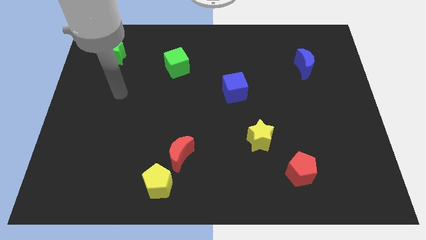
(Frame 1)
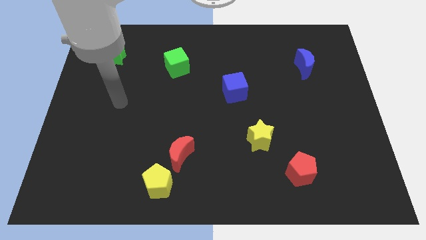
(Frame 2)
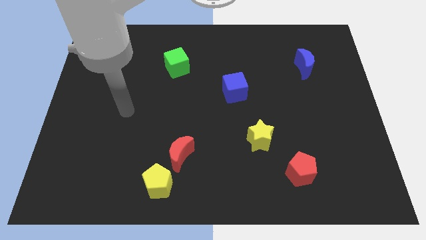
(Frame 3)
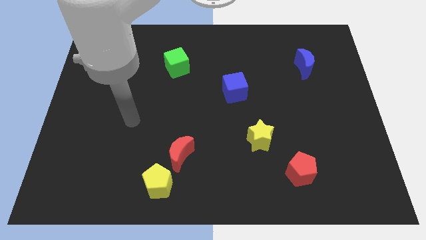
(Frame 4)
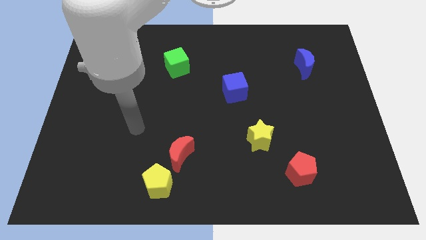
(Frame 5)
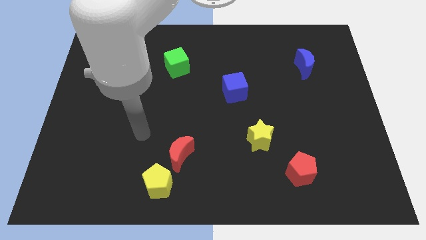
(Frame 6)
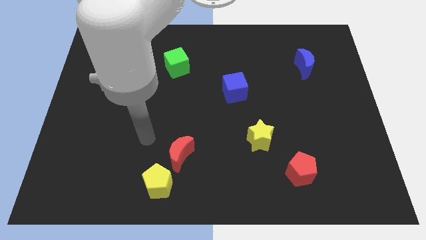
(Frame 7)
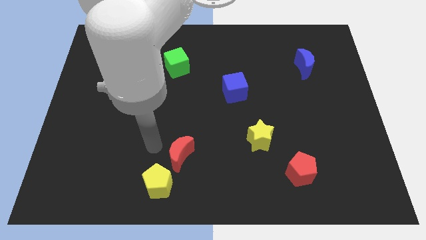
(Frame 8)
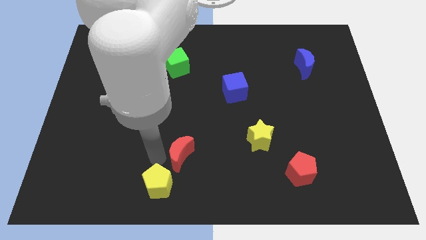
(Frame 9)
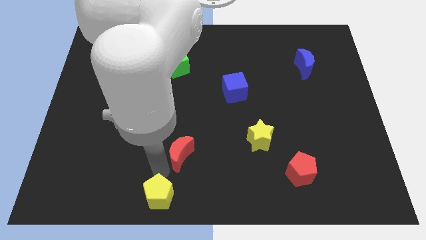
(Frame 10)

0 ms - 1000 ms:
separate the red moon from the yellow pentagon

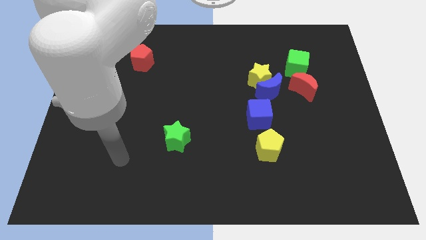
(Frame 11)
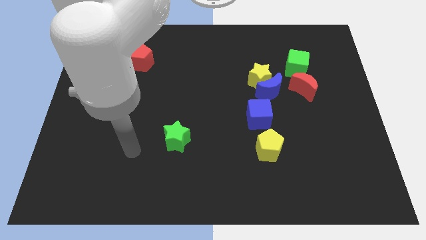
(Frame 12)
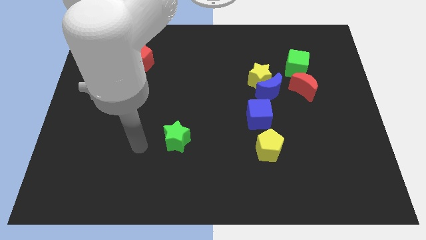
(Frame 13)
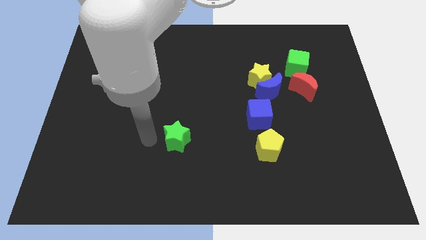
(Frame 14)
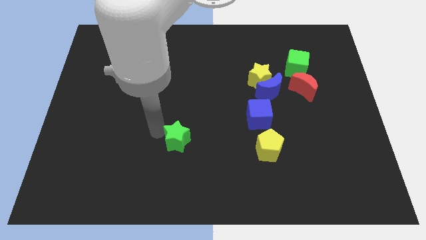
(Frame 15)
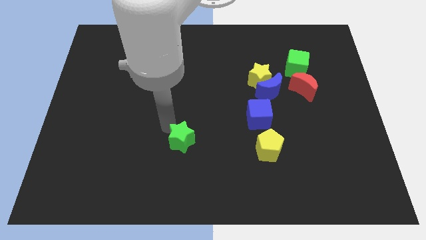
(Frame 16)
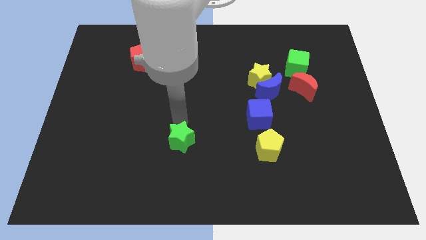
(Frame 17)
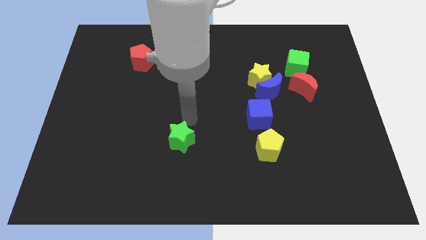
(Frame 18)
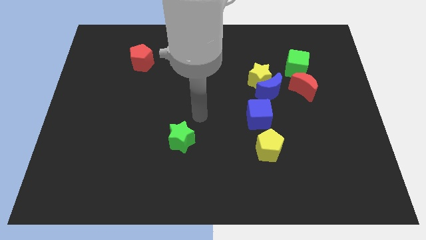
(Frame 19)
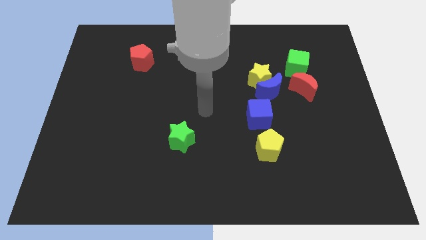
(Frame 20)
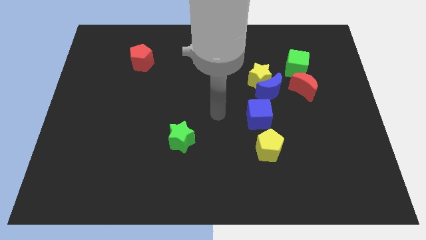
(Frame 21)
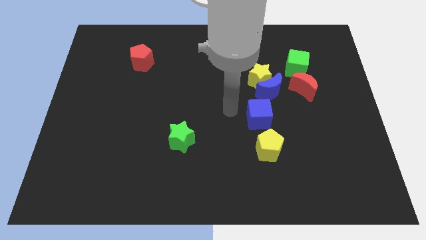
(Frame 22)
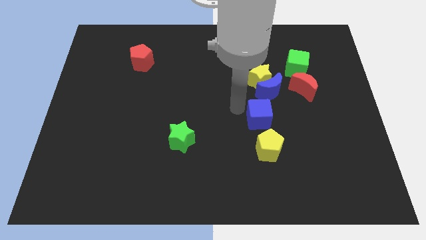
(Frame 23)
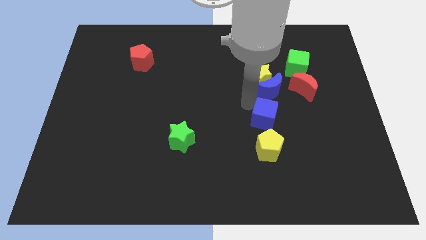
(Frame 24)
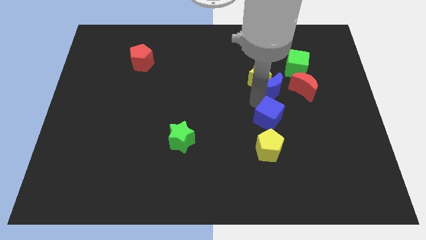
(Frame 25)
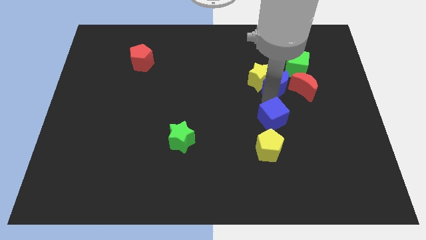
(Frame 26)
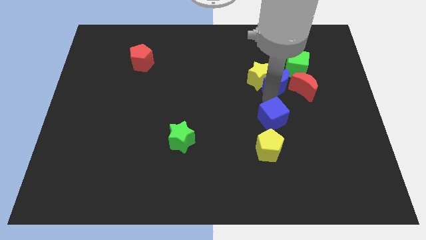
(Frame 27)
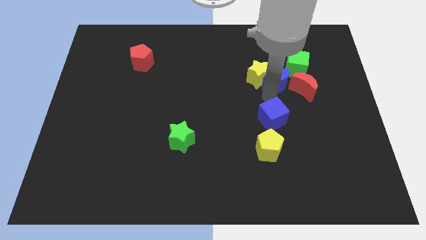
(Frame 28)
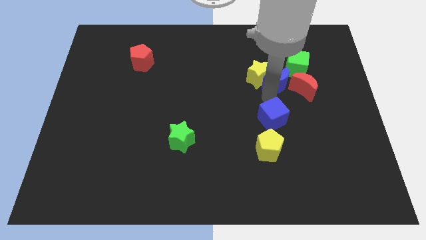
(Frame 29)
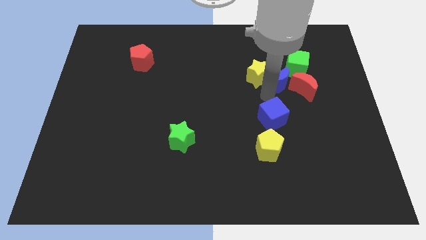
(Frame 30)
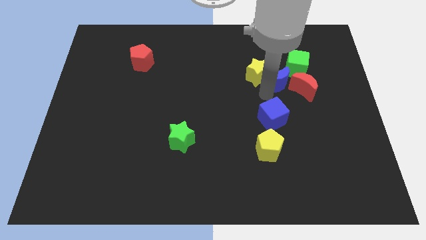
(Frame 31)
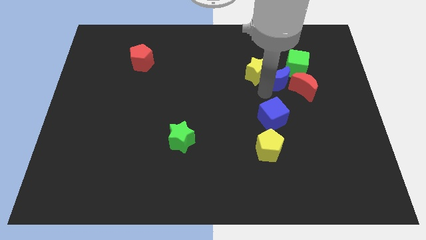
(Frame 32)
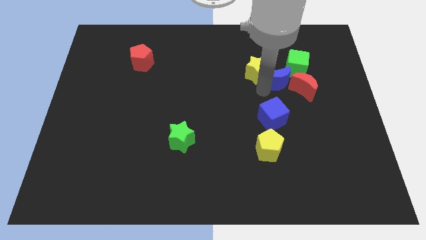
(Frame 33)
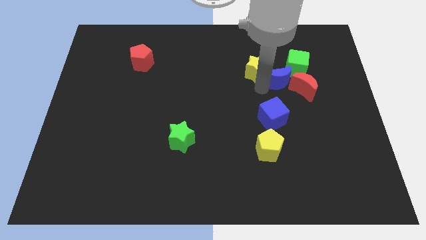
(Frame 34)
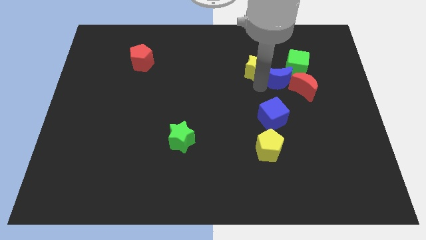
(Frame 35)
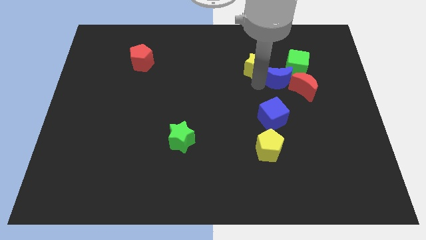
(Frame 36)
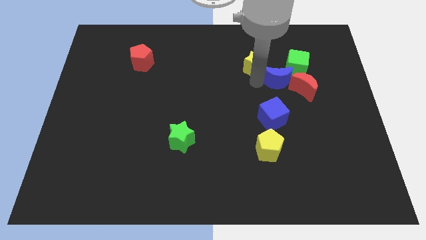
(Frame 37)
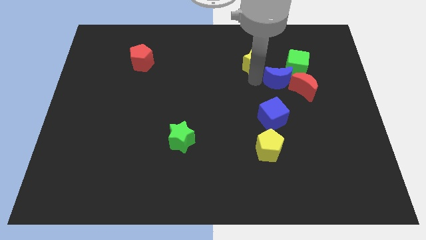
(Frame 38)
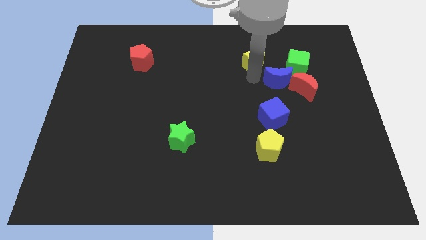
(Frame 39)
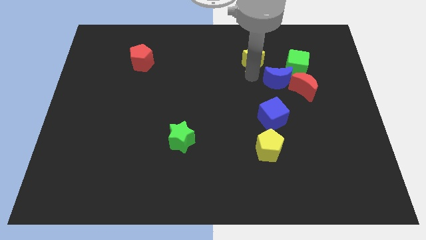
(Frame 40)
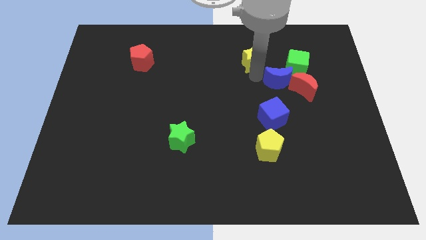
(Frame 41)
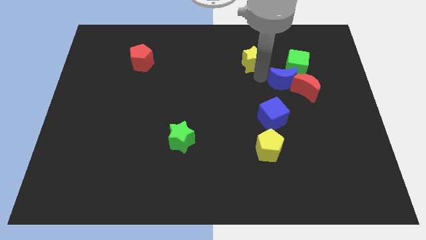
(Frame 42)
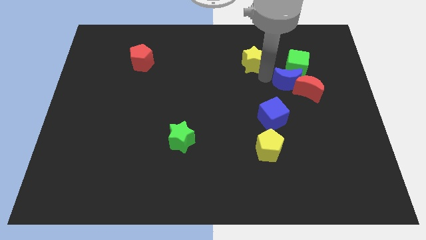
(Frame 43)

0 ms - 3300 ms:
separate the yellow star from the blue moon

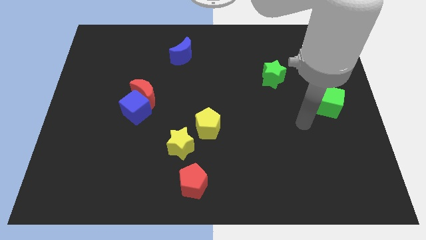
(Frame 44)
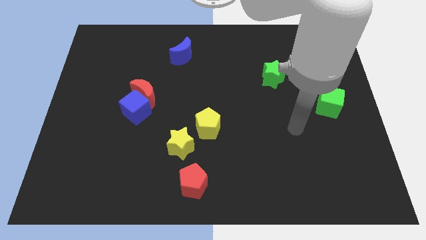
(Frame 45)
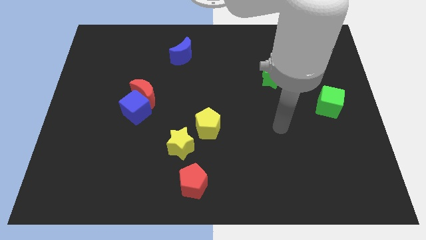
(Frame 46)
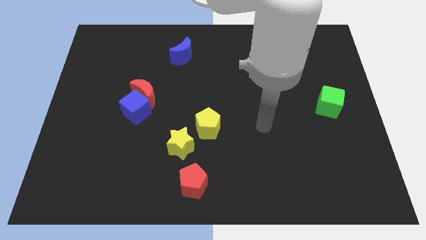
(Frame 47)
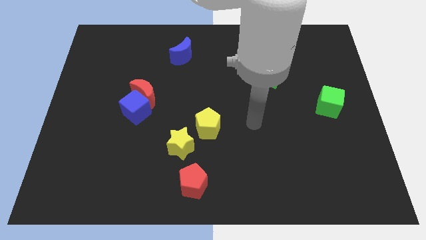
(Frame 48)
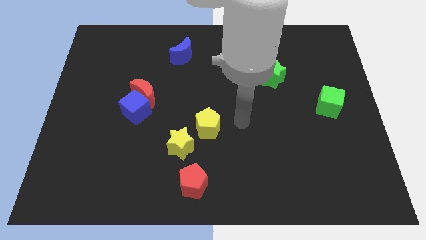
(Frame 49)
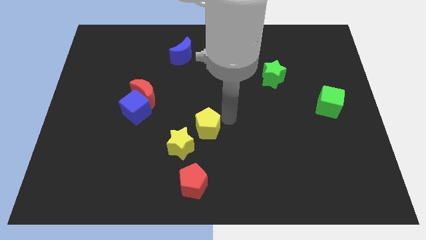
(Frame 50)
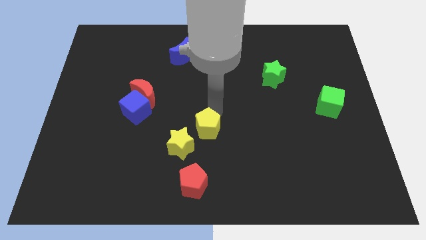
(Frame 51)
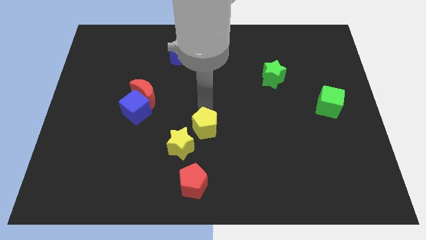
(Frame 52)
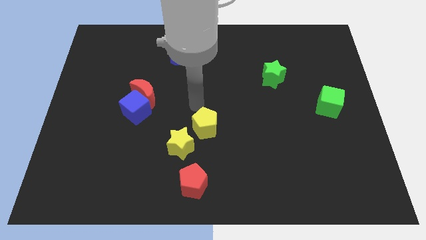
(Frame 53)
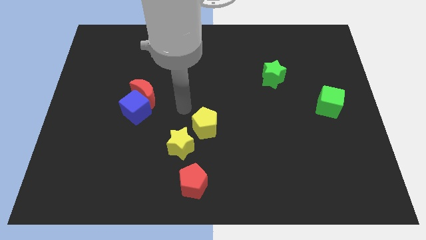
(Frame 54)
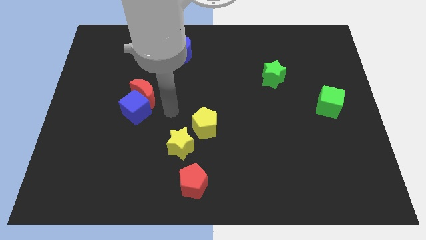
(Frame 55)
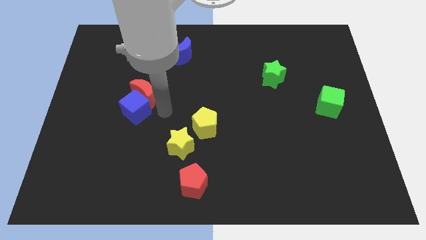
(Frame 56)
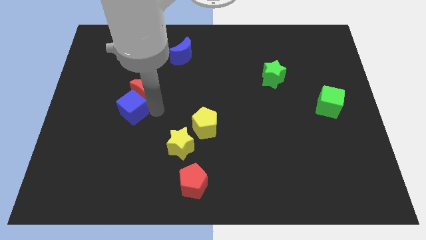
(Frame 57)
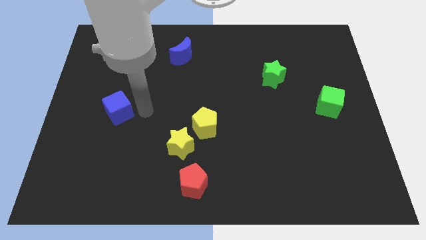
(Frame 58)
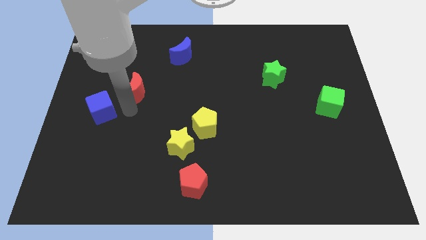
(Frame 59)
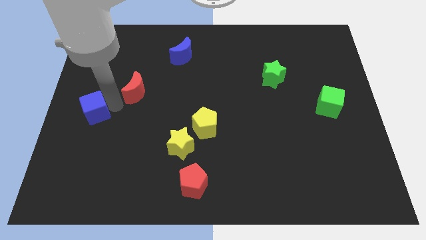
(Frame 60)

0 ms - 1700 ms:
move the red moon away from the blue cube

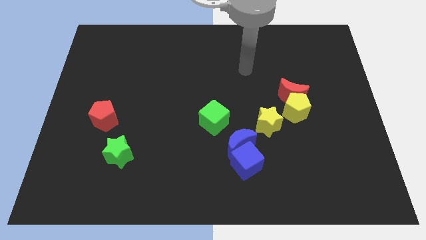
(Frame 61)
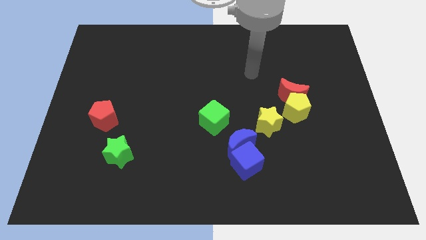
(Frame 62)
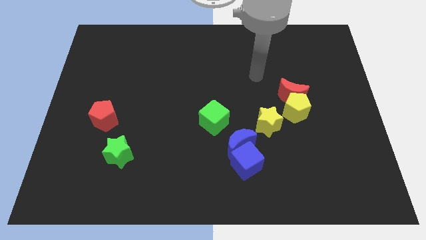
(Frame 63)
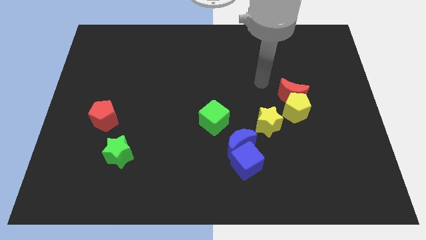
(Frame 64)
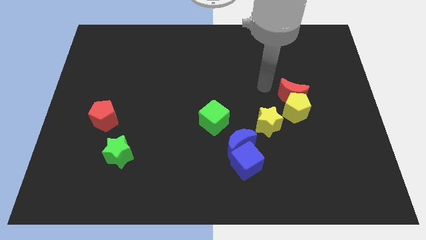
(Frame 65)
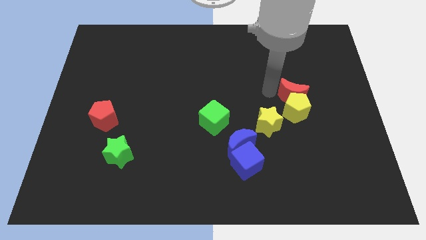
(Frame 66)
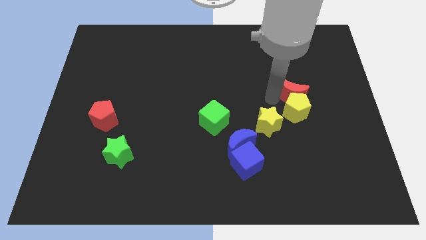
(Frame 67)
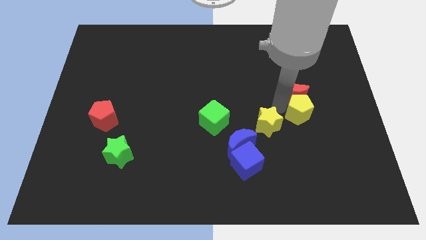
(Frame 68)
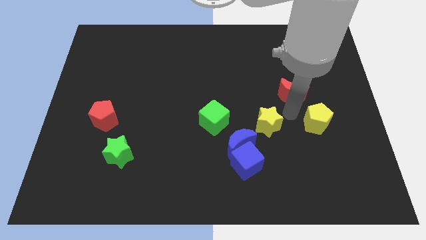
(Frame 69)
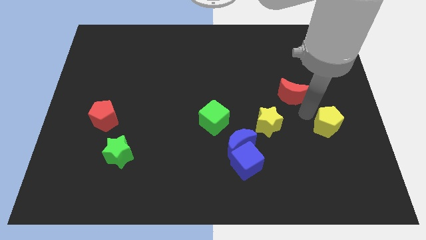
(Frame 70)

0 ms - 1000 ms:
pull the red moon apart from the yellow pentagon

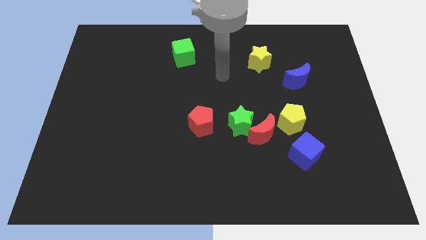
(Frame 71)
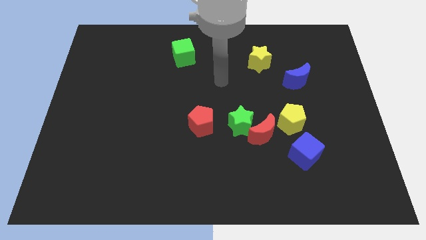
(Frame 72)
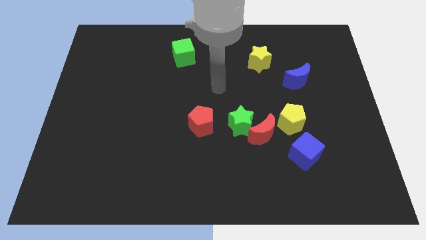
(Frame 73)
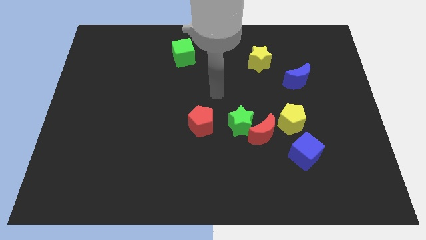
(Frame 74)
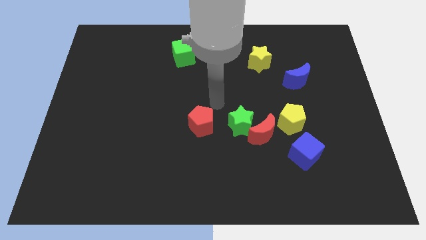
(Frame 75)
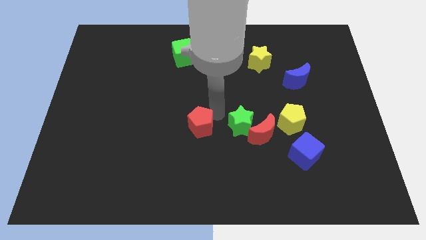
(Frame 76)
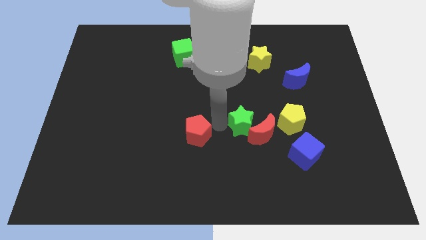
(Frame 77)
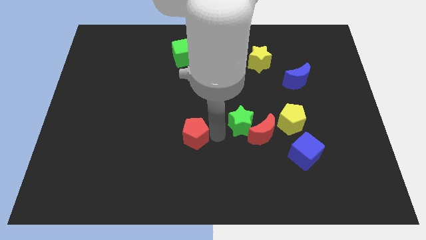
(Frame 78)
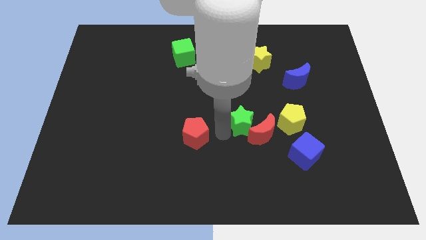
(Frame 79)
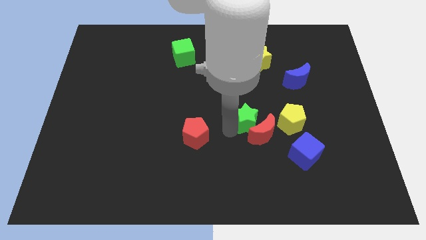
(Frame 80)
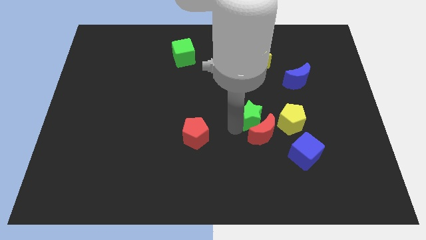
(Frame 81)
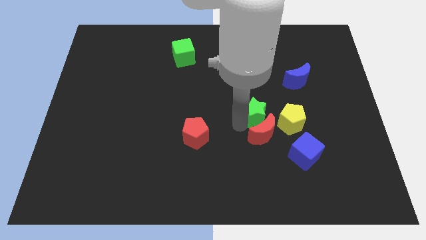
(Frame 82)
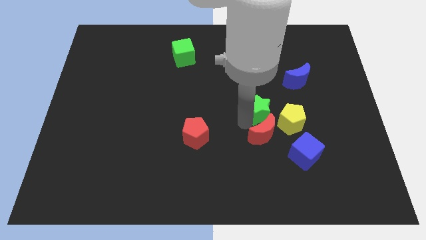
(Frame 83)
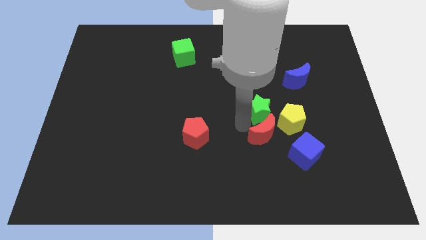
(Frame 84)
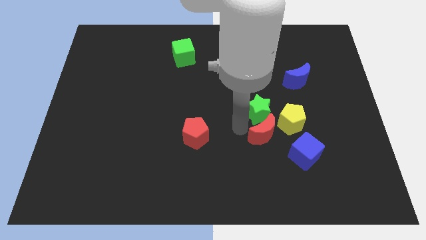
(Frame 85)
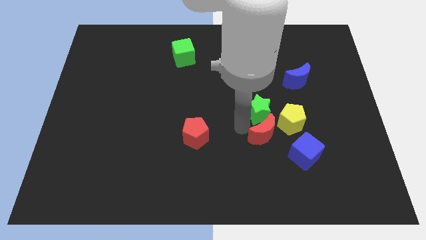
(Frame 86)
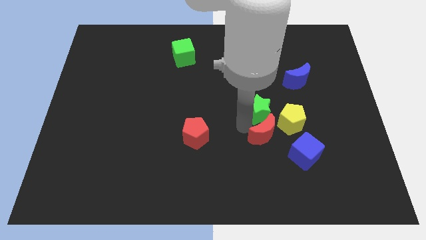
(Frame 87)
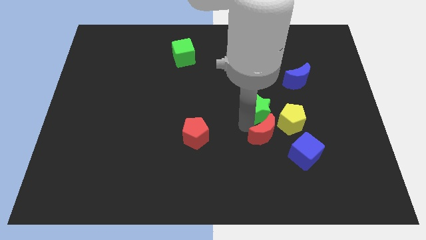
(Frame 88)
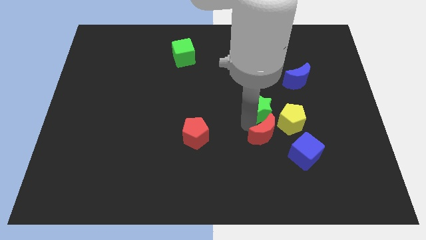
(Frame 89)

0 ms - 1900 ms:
move the green star away from the red moon and red pentagon

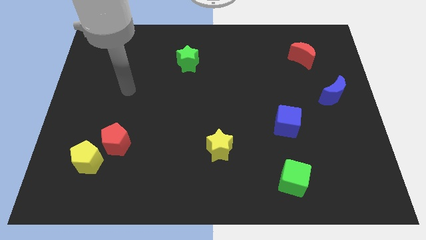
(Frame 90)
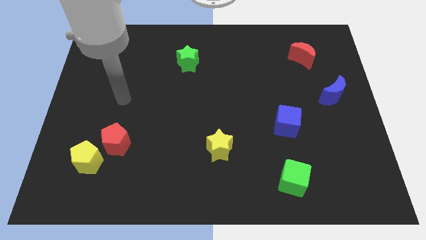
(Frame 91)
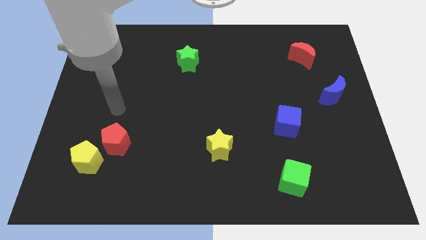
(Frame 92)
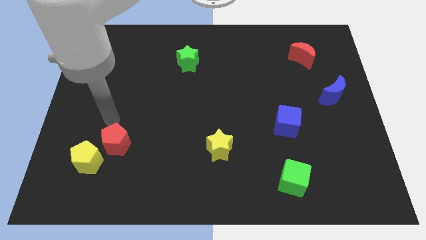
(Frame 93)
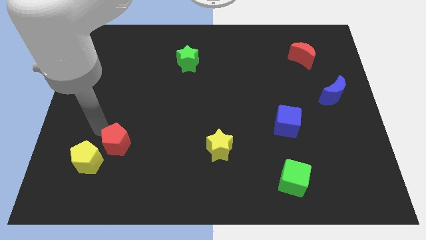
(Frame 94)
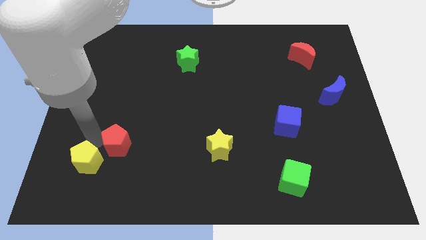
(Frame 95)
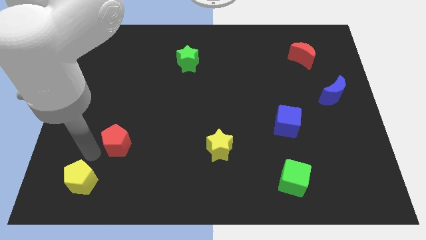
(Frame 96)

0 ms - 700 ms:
pull the red pentagon apart from the yellow pentagon
